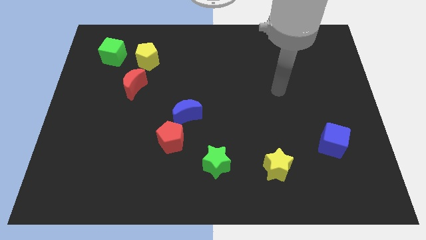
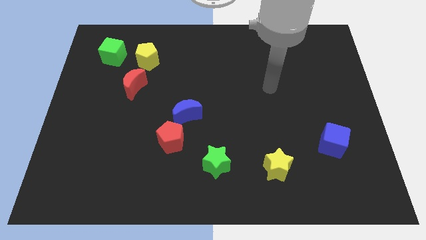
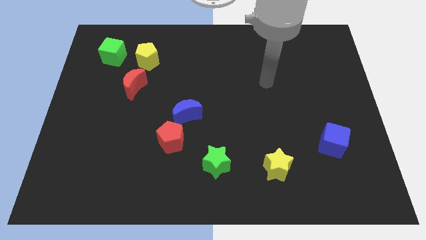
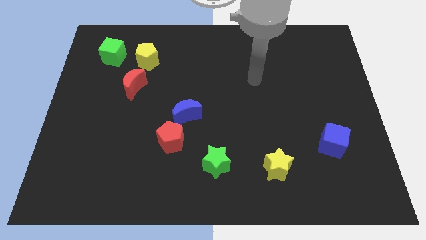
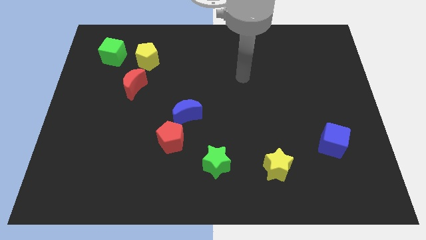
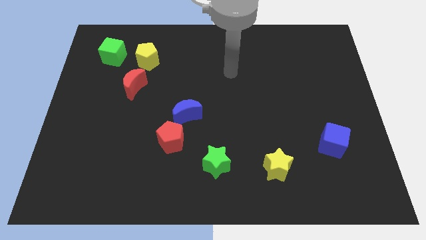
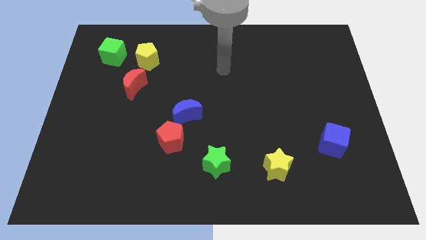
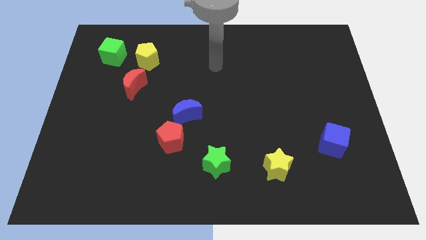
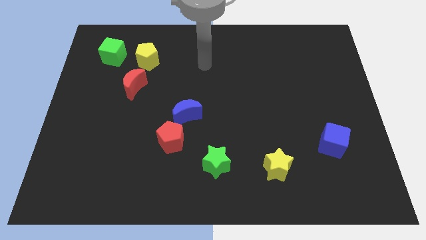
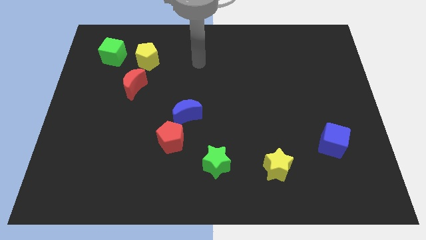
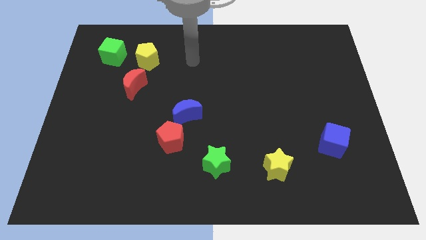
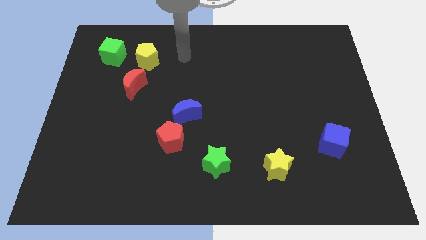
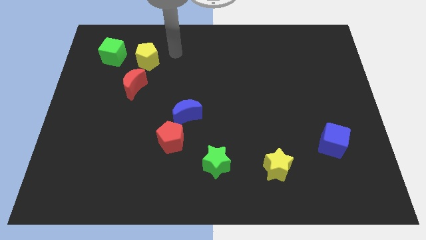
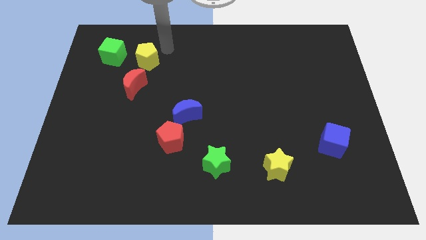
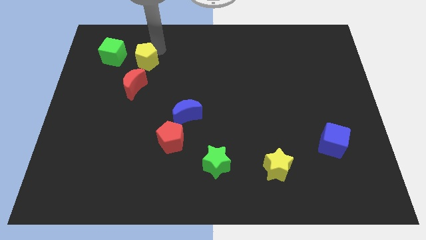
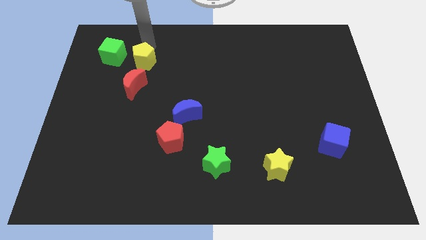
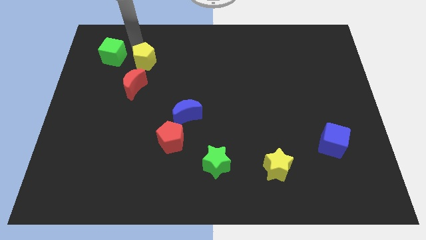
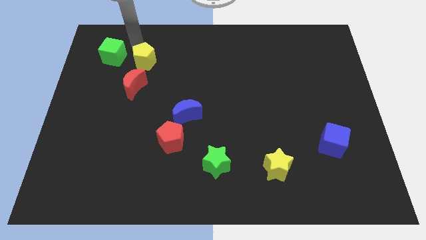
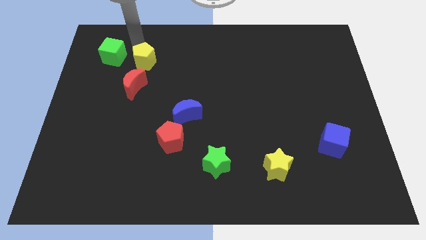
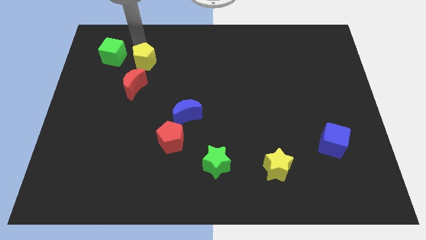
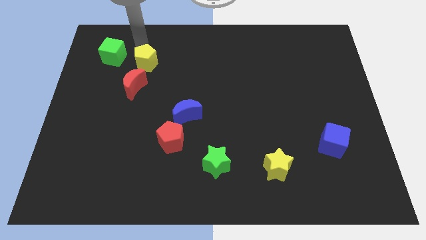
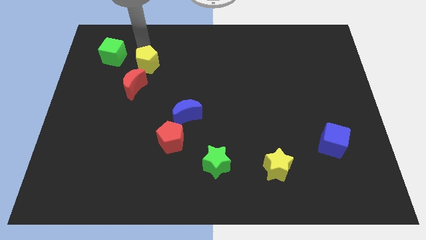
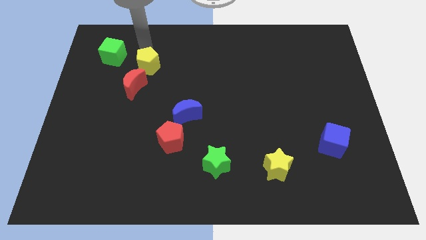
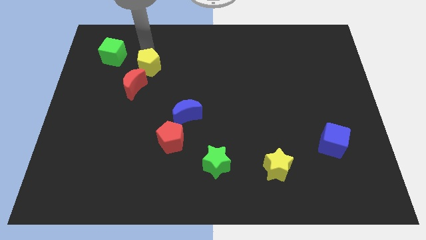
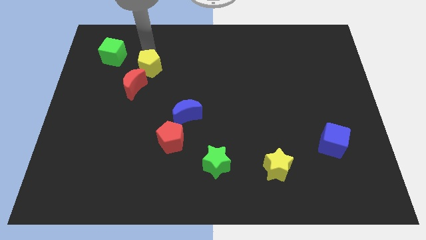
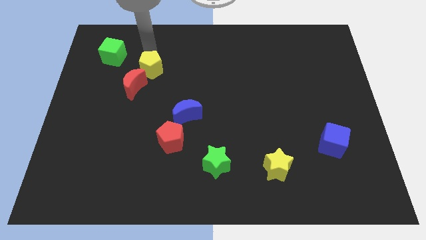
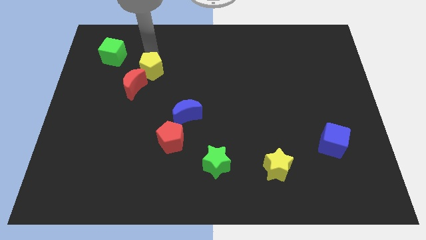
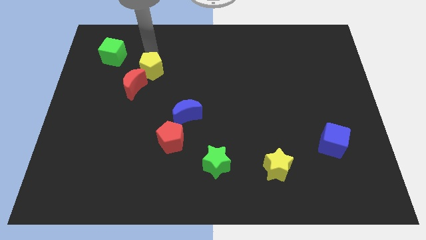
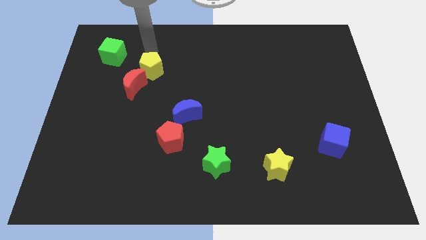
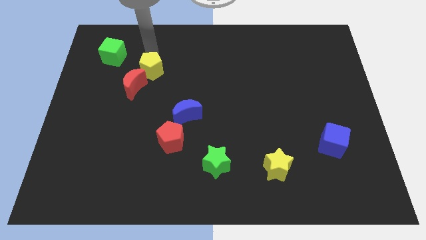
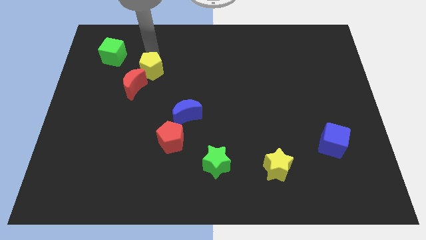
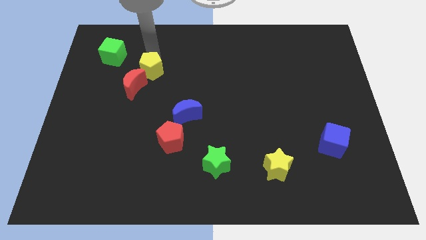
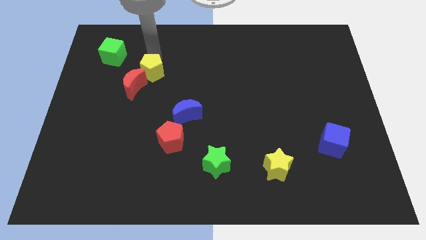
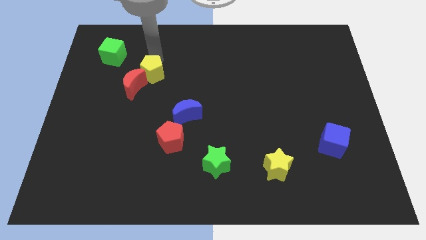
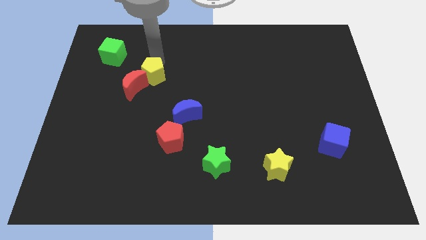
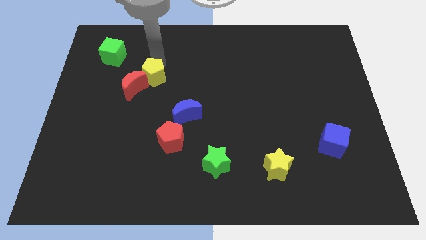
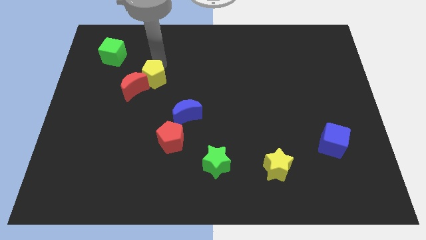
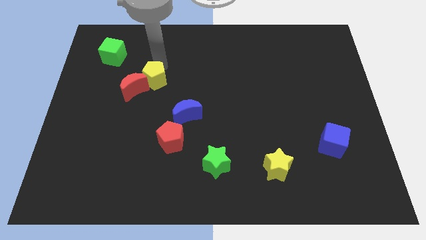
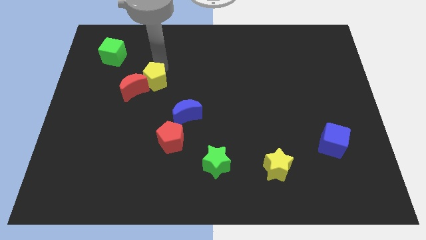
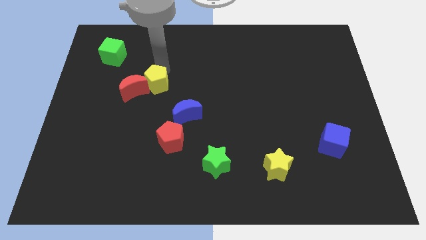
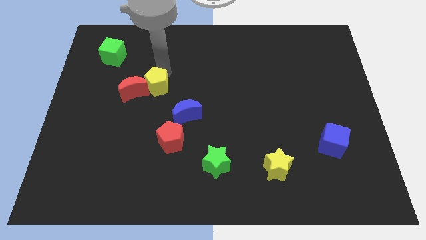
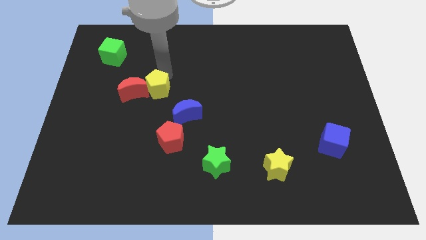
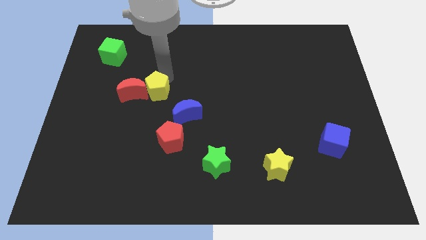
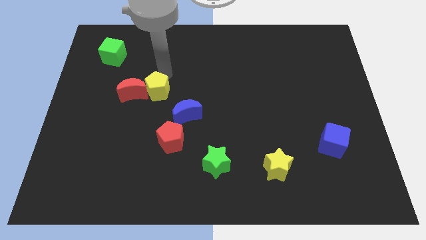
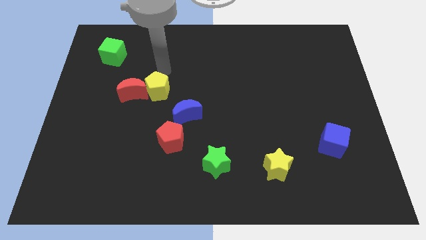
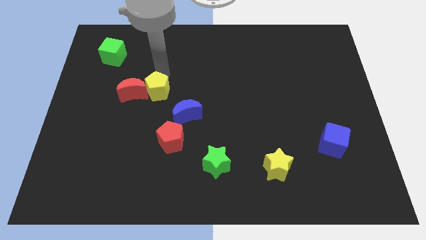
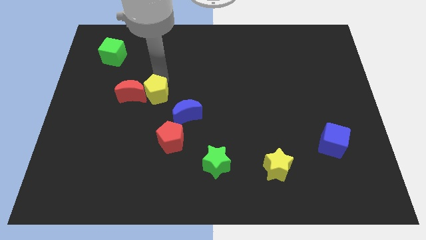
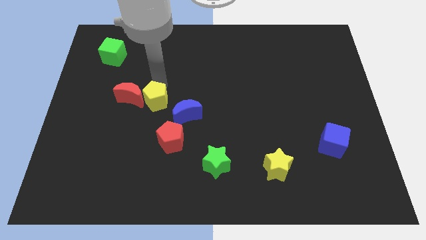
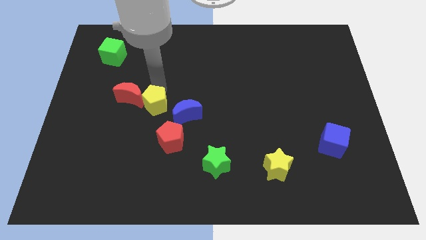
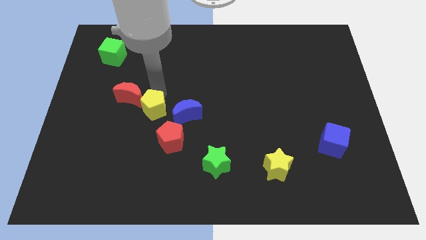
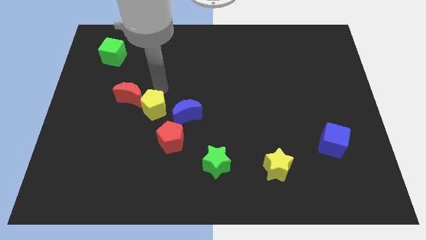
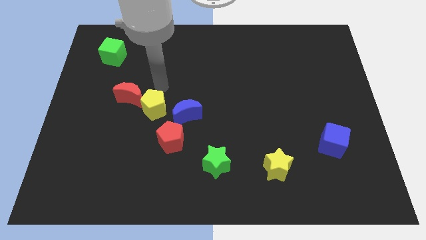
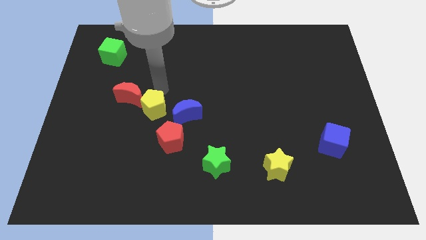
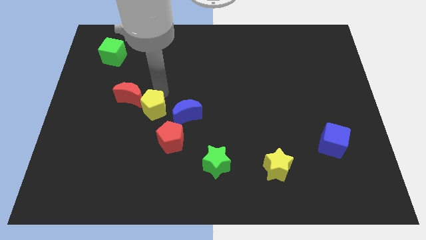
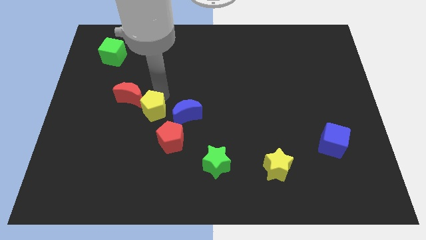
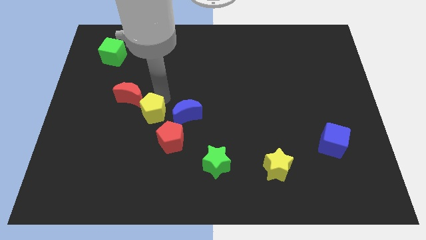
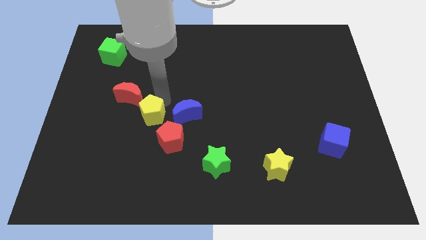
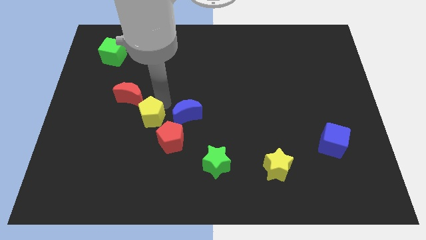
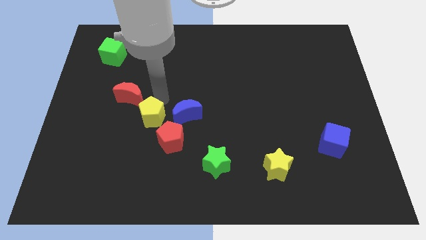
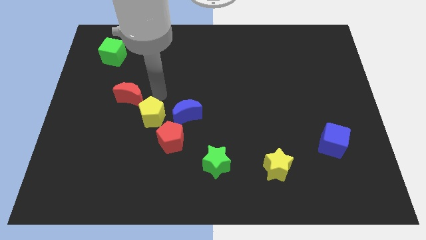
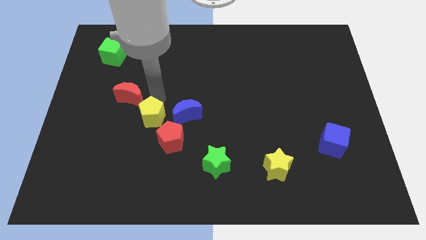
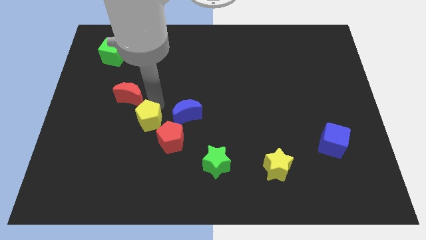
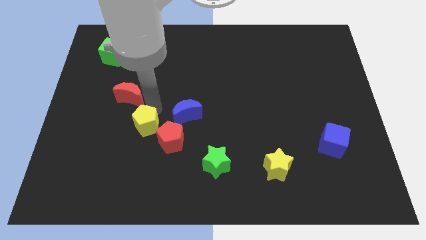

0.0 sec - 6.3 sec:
push the yellow pentagon downwards

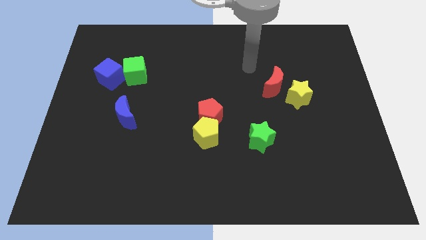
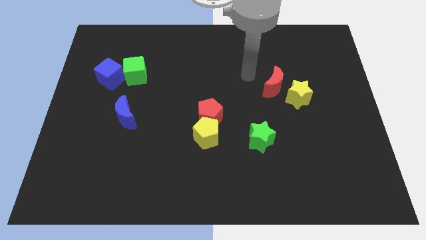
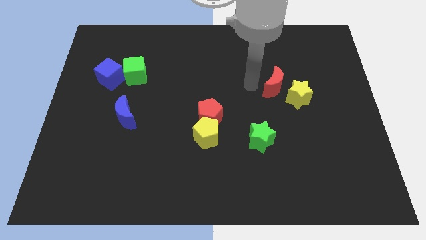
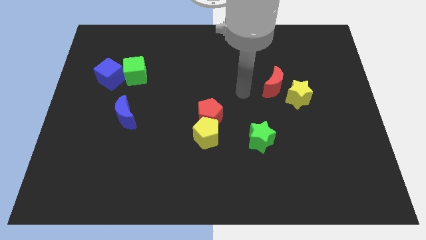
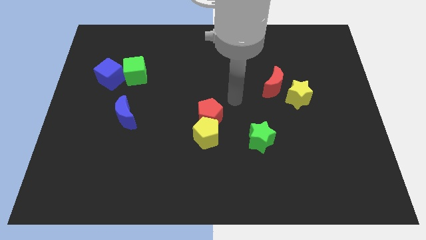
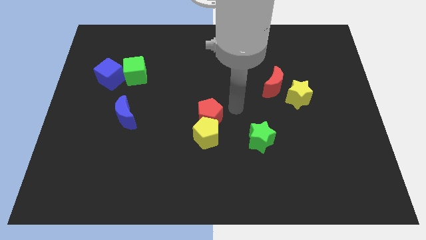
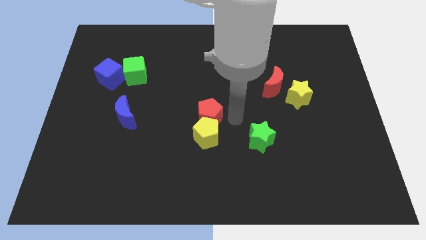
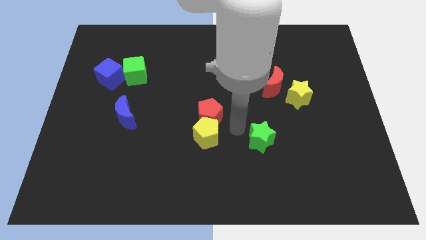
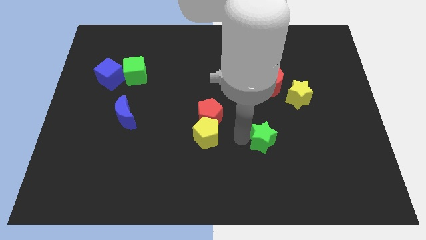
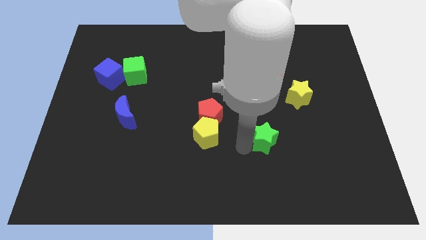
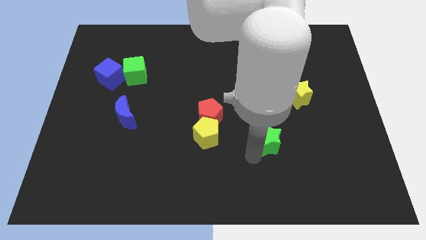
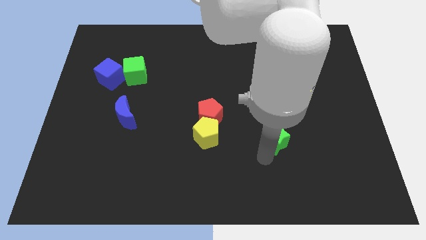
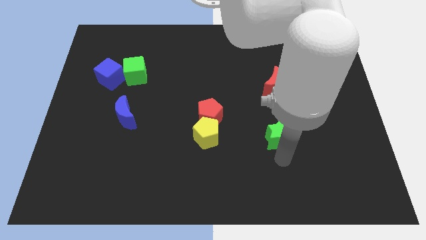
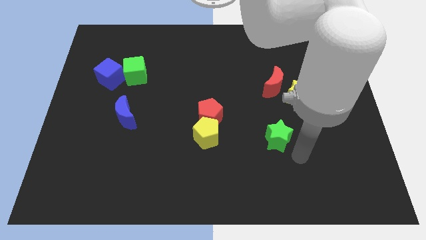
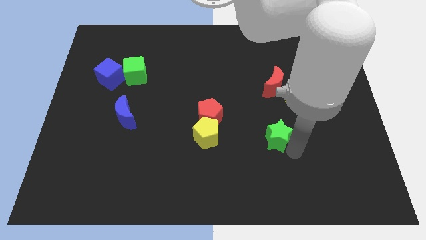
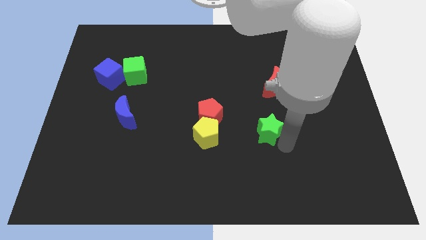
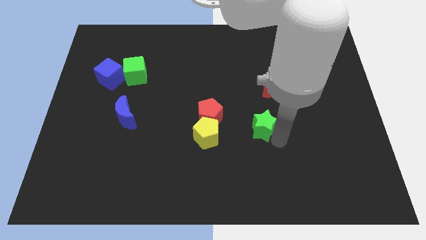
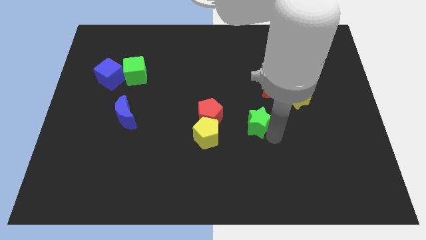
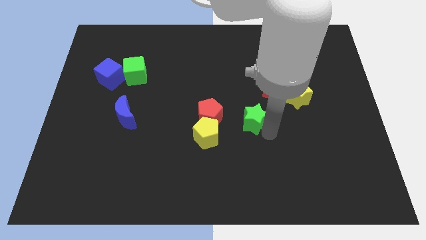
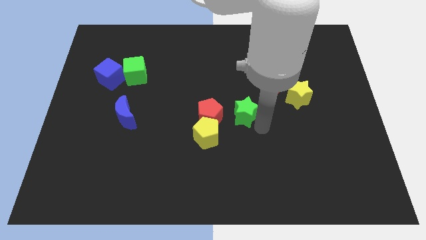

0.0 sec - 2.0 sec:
move the green star upwards and left a little bit

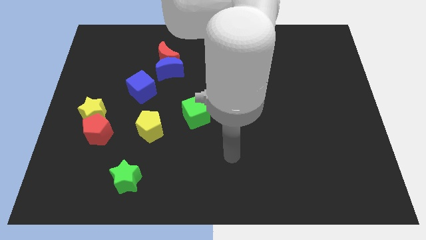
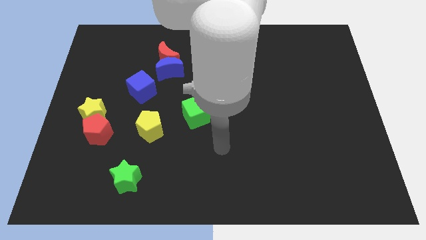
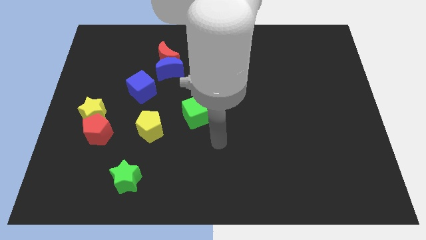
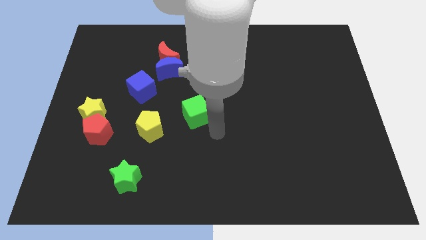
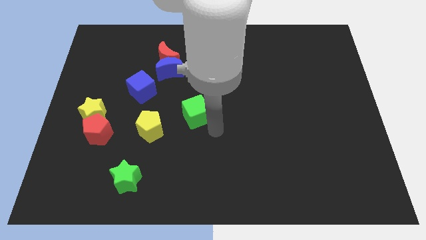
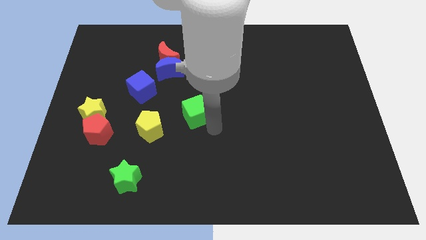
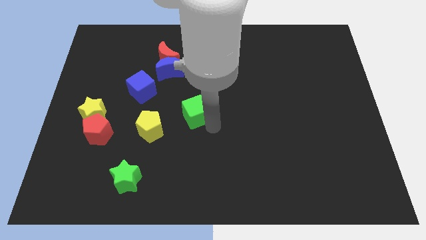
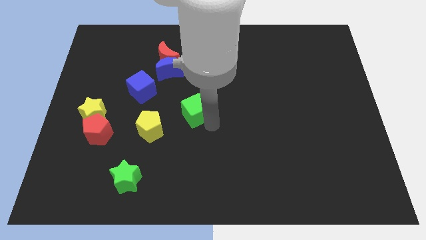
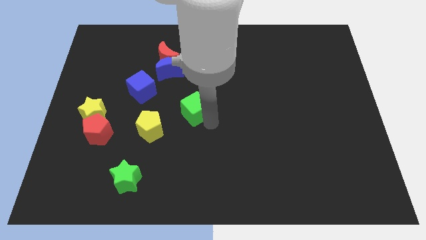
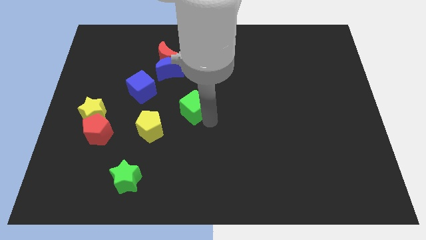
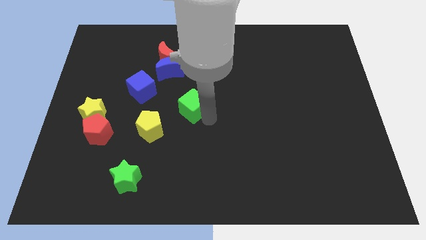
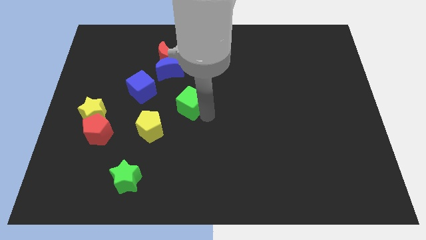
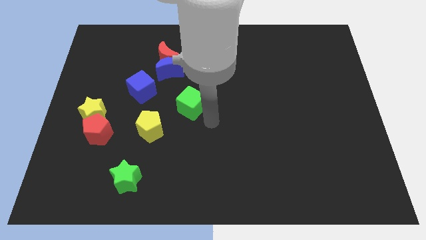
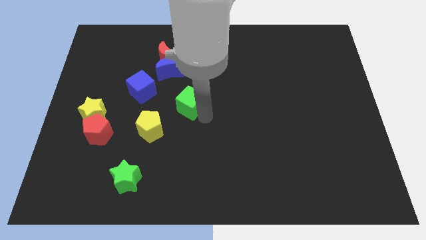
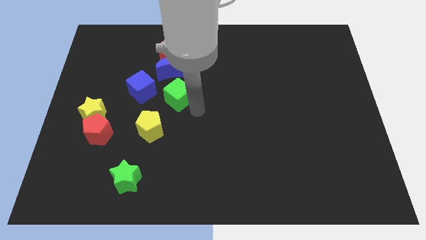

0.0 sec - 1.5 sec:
push the green cube slightly upwards and to the left
